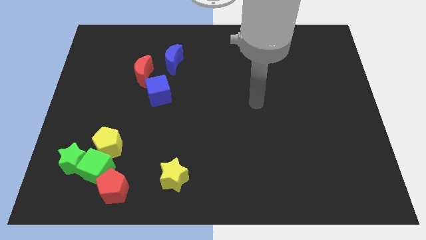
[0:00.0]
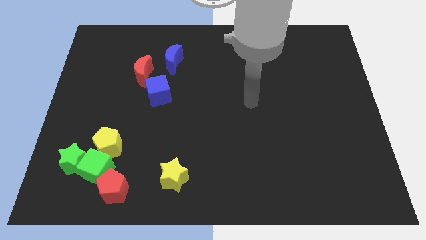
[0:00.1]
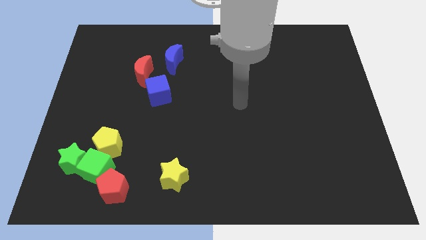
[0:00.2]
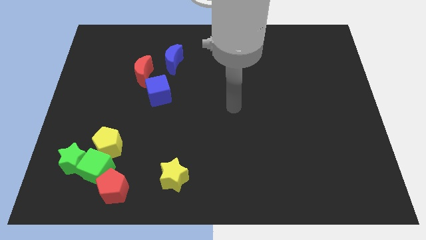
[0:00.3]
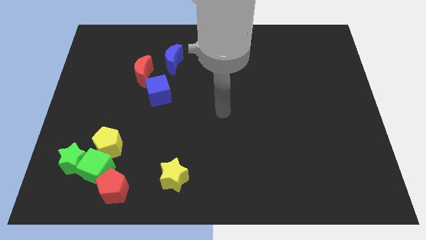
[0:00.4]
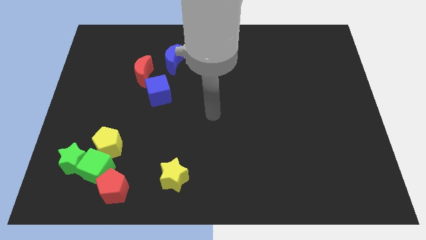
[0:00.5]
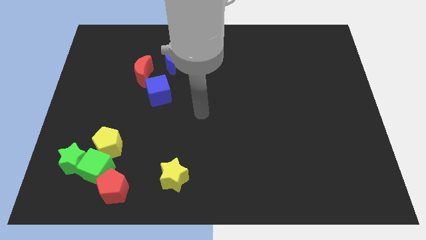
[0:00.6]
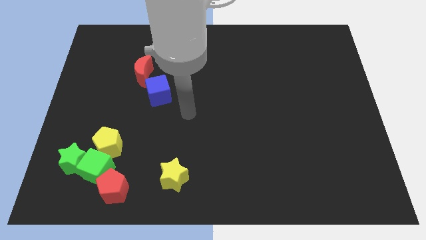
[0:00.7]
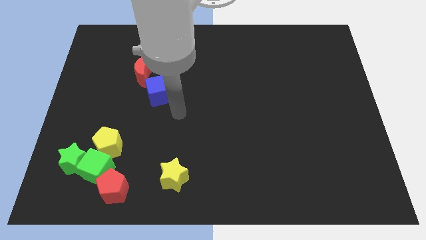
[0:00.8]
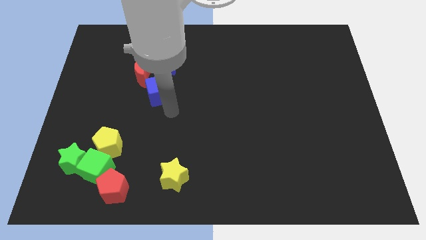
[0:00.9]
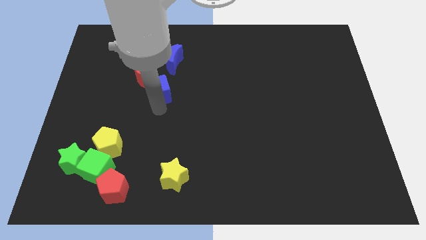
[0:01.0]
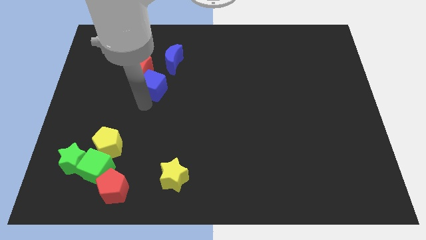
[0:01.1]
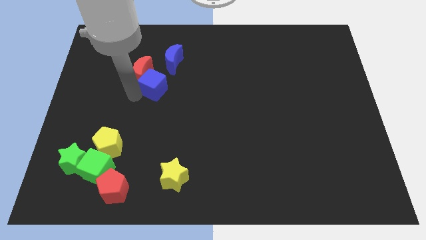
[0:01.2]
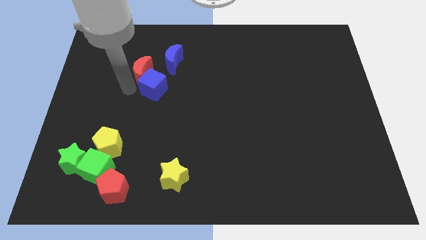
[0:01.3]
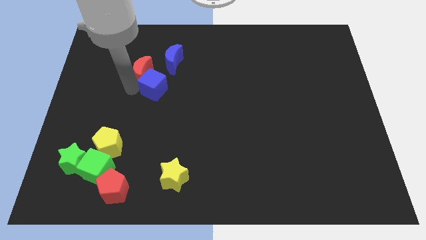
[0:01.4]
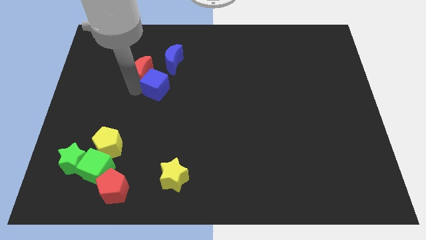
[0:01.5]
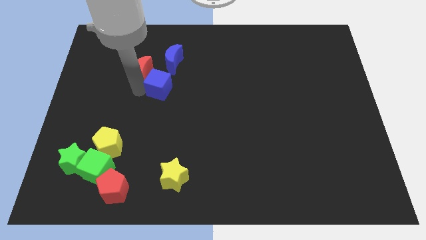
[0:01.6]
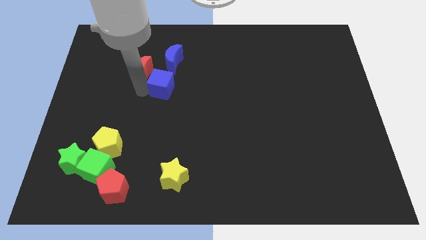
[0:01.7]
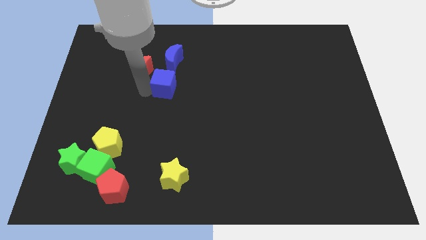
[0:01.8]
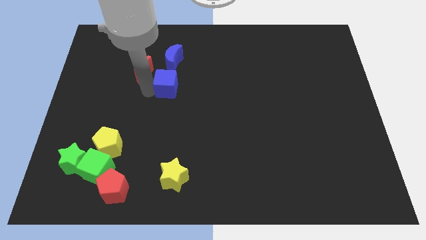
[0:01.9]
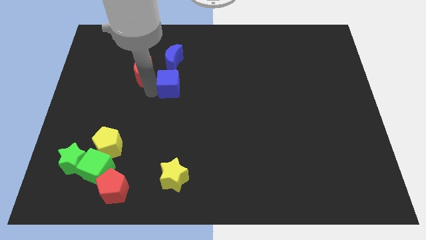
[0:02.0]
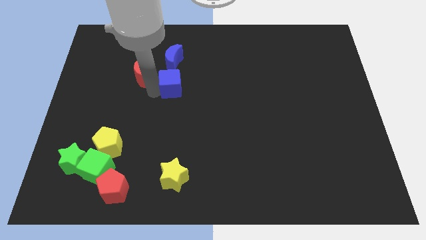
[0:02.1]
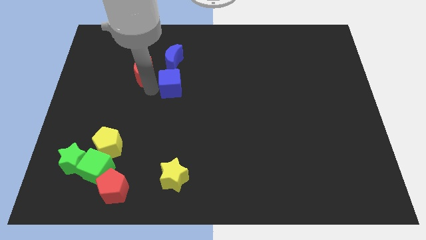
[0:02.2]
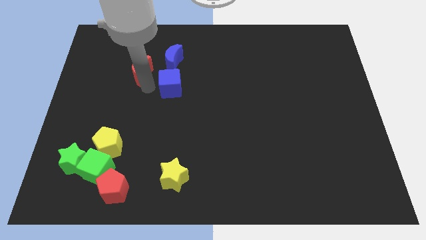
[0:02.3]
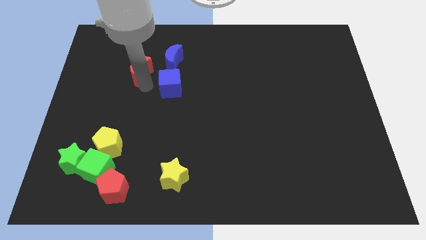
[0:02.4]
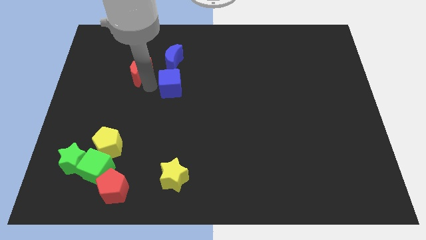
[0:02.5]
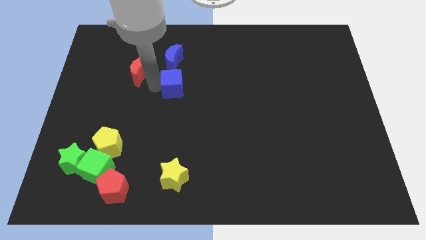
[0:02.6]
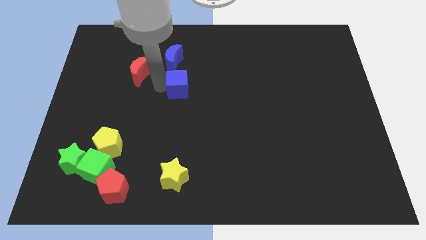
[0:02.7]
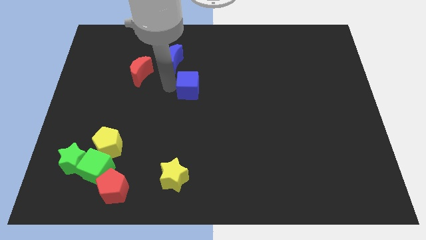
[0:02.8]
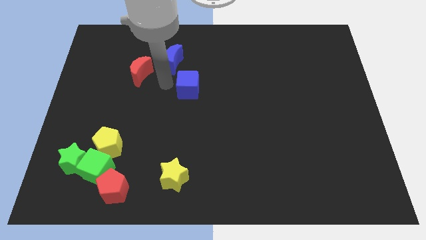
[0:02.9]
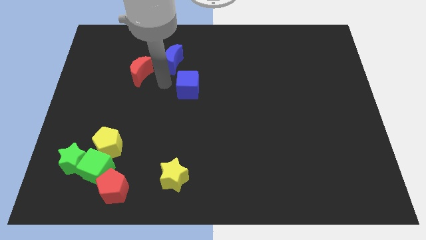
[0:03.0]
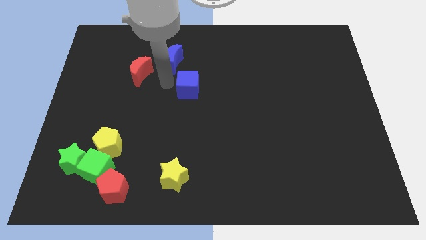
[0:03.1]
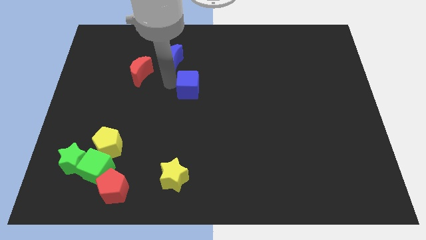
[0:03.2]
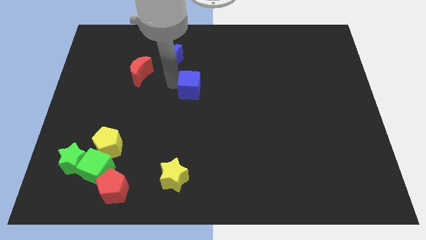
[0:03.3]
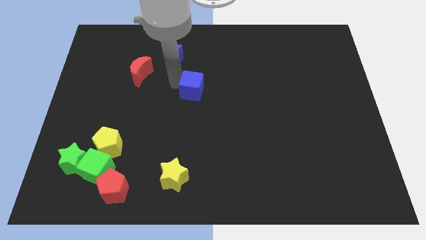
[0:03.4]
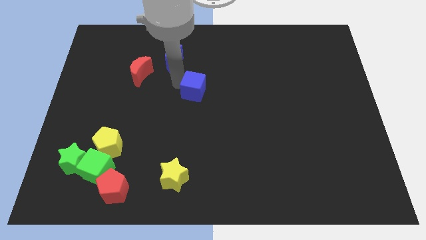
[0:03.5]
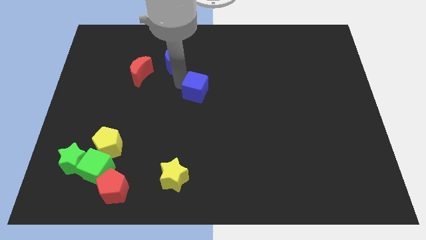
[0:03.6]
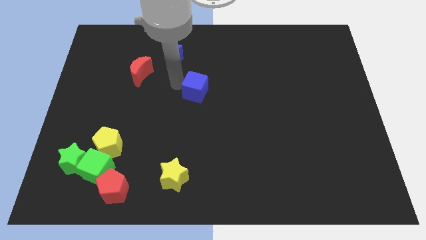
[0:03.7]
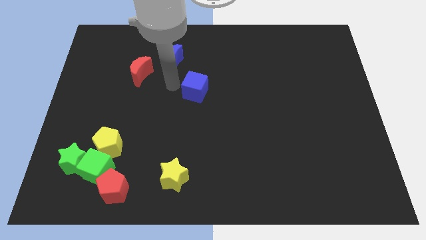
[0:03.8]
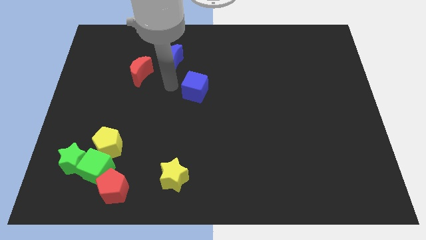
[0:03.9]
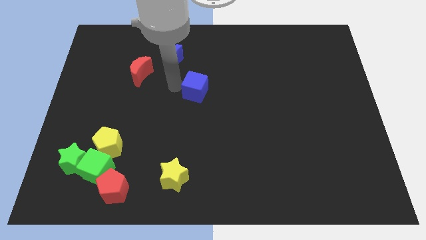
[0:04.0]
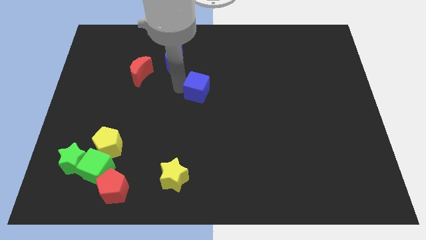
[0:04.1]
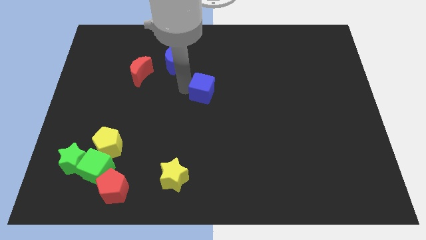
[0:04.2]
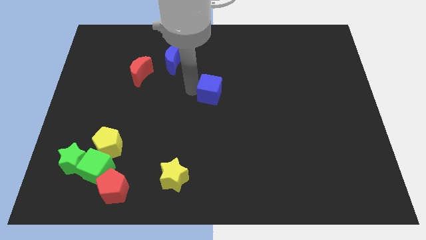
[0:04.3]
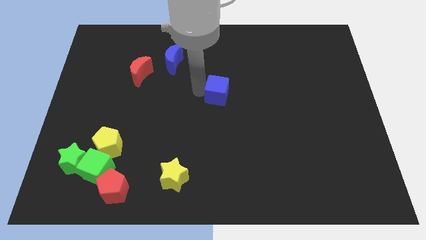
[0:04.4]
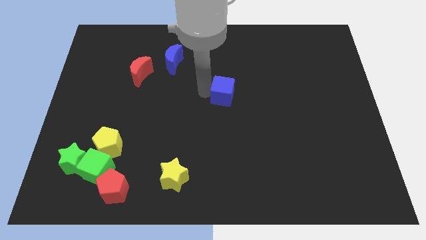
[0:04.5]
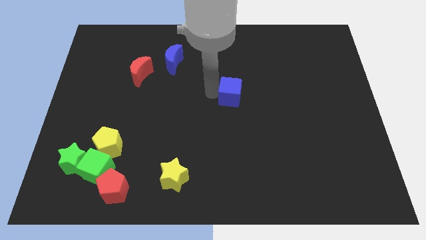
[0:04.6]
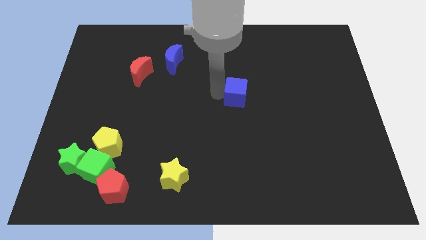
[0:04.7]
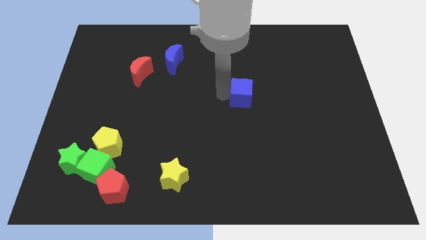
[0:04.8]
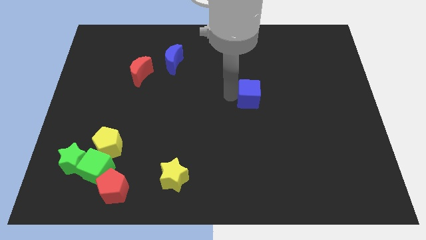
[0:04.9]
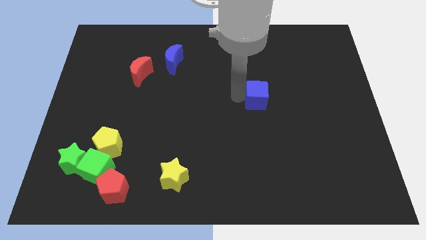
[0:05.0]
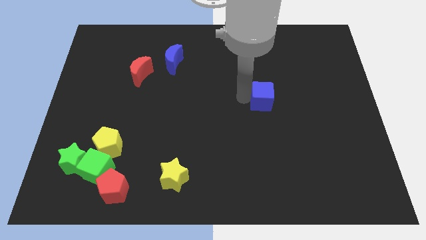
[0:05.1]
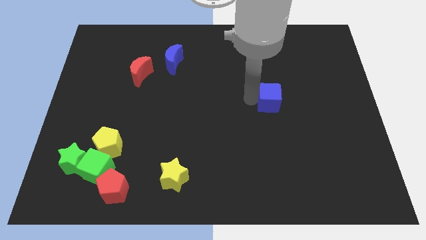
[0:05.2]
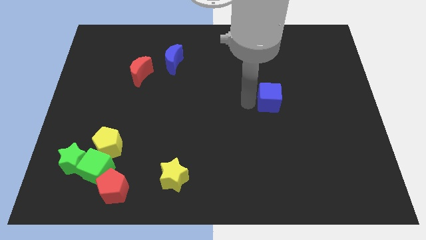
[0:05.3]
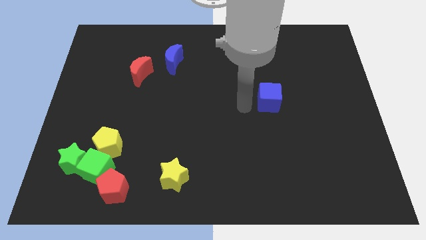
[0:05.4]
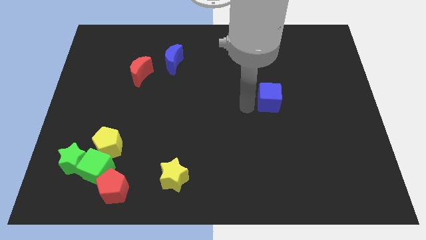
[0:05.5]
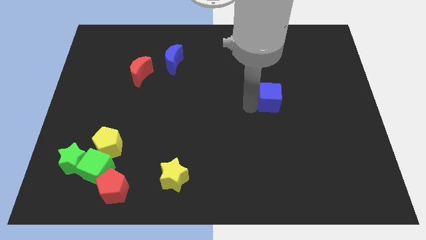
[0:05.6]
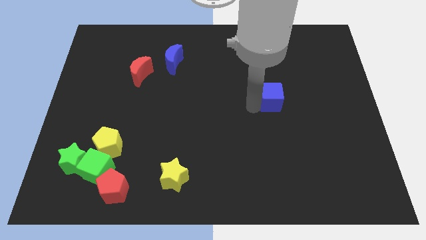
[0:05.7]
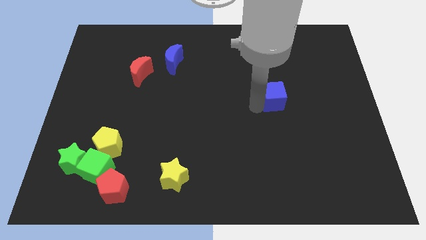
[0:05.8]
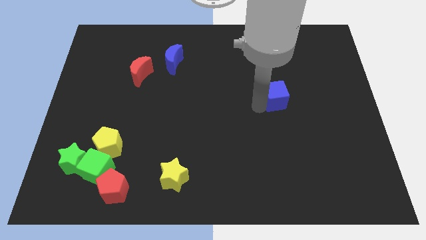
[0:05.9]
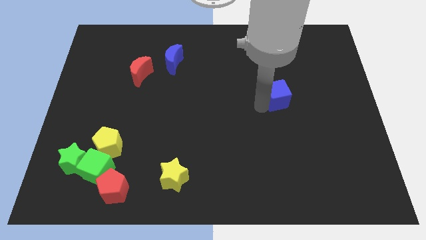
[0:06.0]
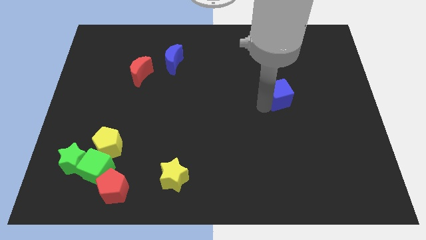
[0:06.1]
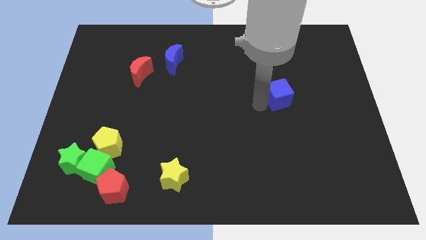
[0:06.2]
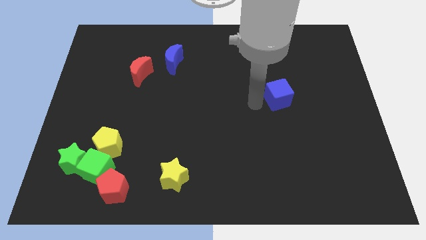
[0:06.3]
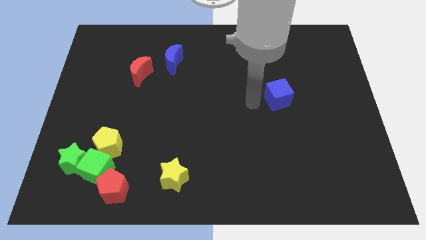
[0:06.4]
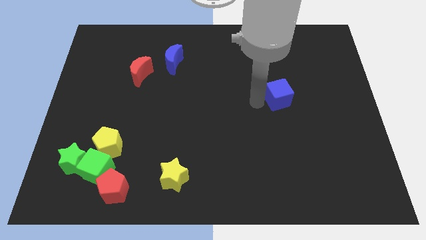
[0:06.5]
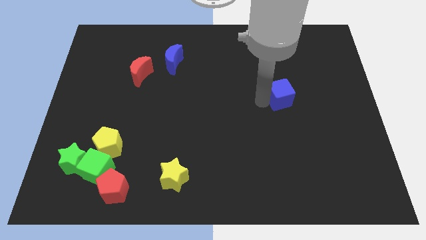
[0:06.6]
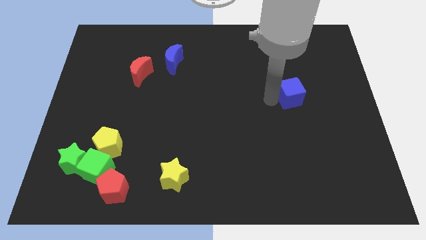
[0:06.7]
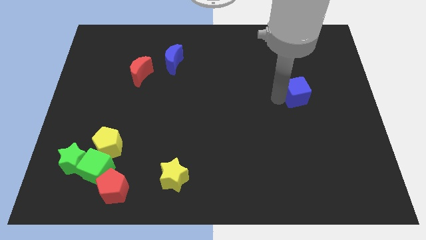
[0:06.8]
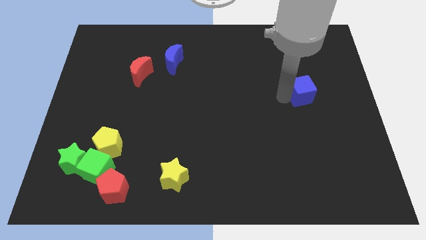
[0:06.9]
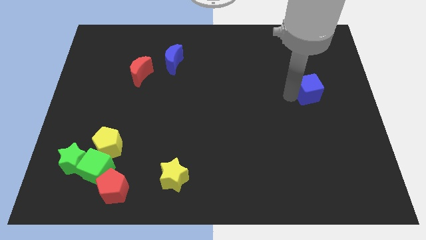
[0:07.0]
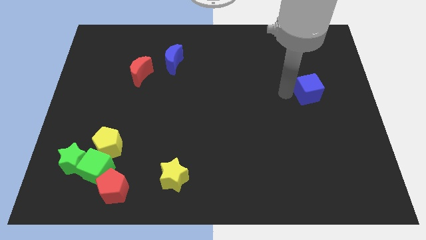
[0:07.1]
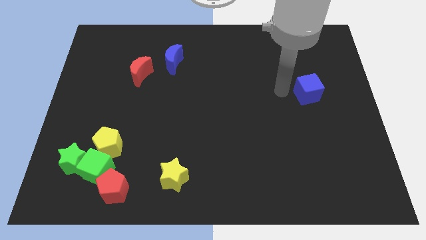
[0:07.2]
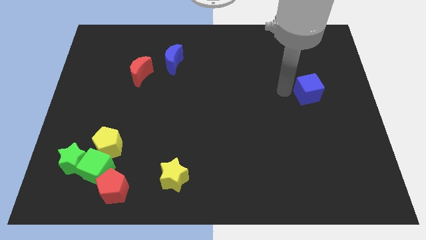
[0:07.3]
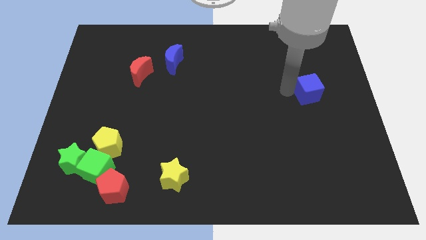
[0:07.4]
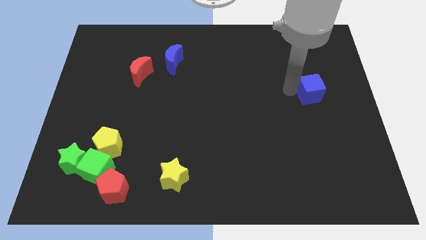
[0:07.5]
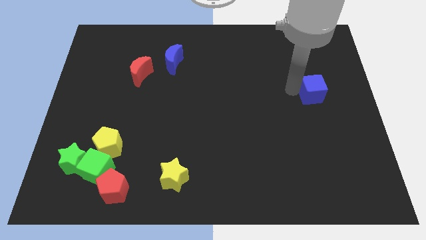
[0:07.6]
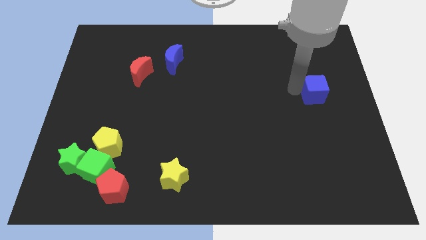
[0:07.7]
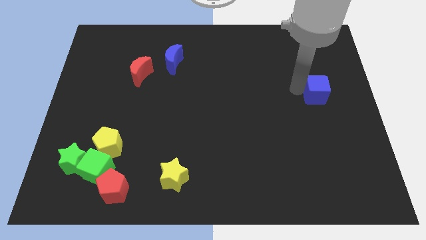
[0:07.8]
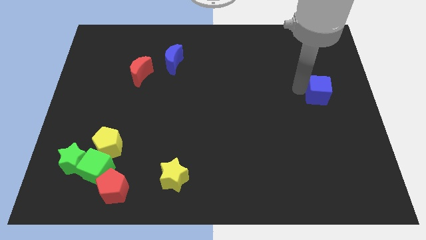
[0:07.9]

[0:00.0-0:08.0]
move the blue cube to the right side of the board
